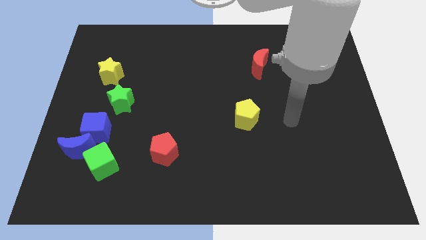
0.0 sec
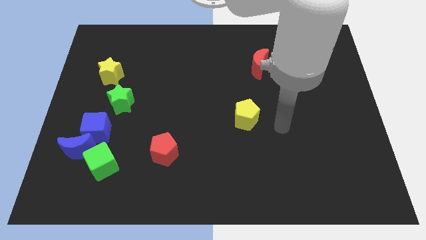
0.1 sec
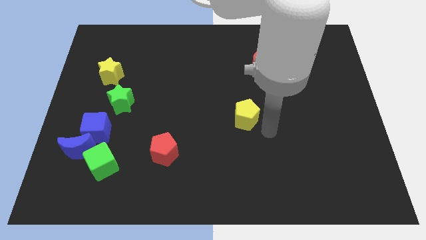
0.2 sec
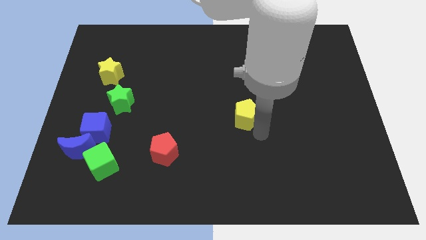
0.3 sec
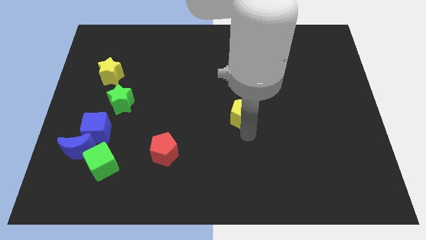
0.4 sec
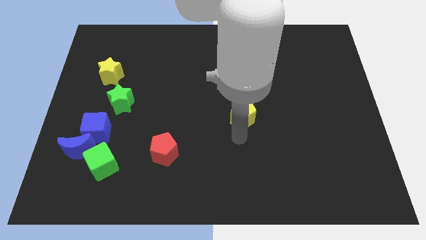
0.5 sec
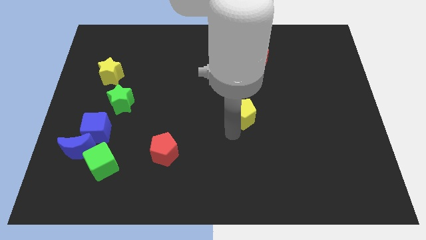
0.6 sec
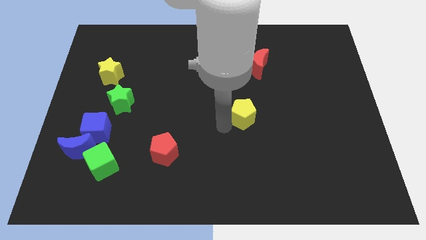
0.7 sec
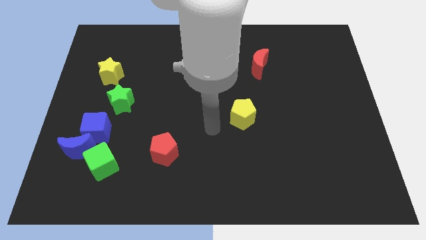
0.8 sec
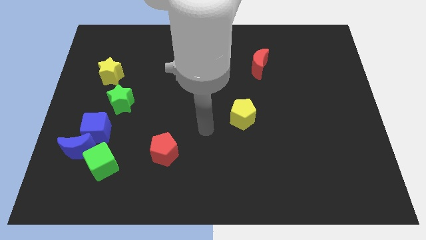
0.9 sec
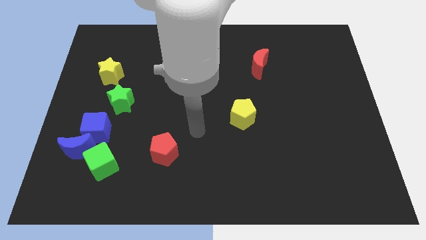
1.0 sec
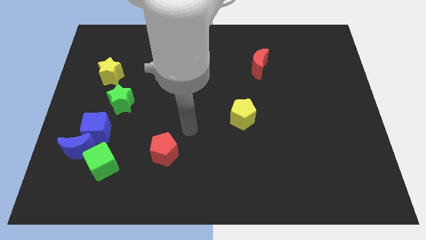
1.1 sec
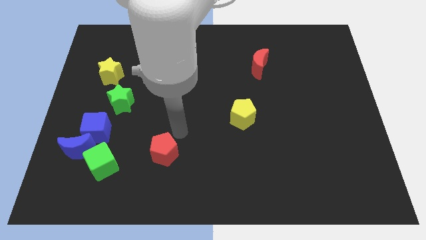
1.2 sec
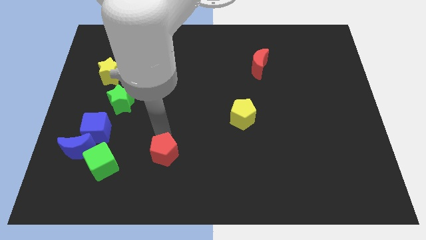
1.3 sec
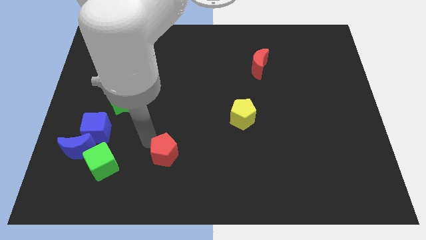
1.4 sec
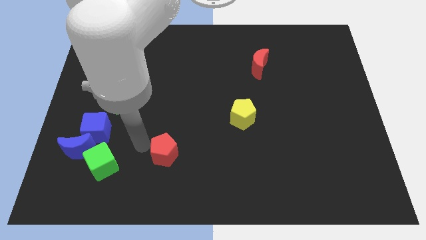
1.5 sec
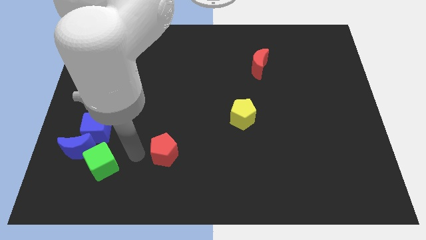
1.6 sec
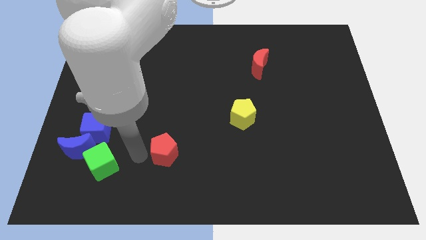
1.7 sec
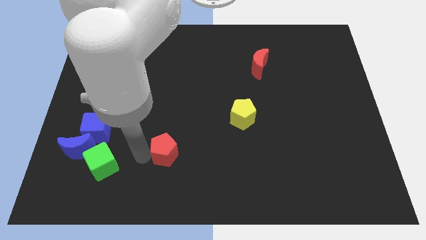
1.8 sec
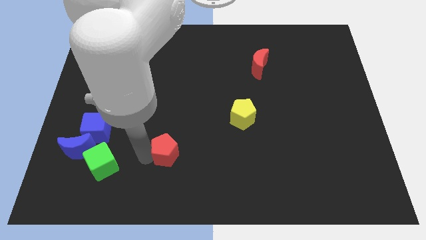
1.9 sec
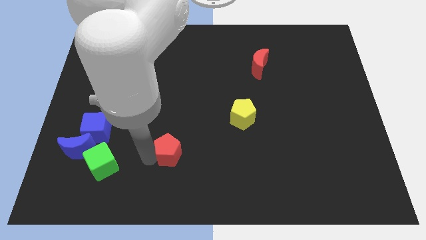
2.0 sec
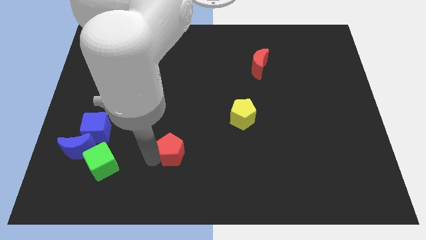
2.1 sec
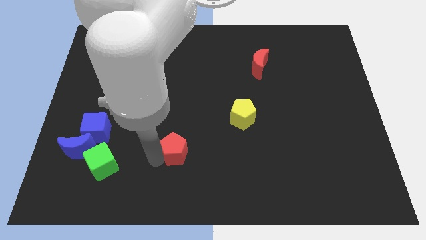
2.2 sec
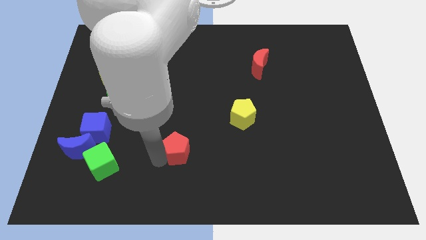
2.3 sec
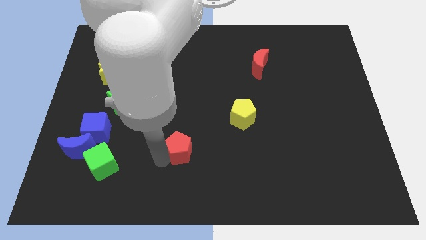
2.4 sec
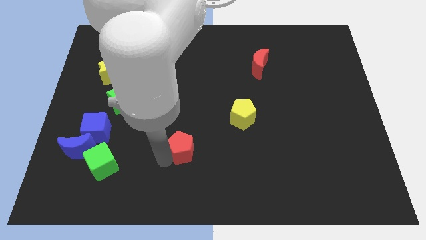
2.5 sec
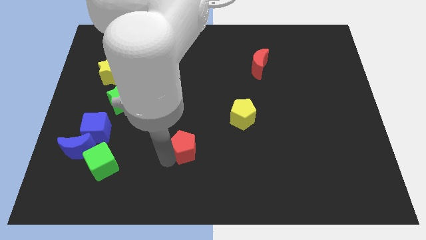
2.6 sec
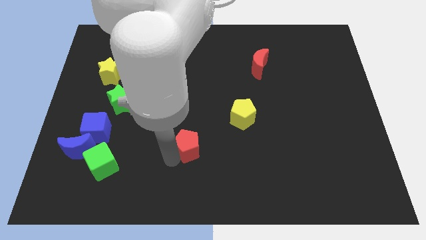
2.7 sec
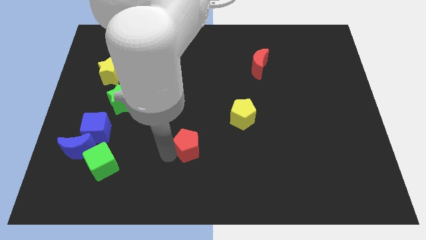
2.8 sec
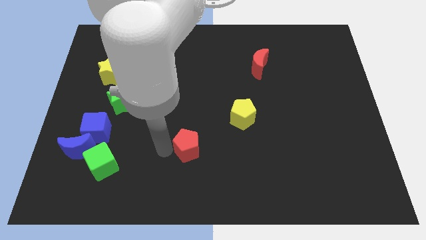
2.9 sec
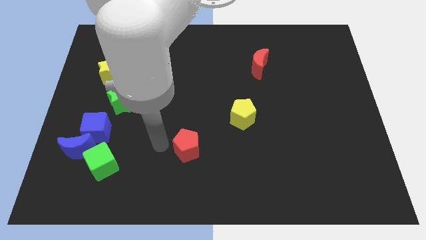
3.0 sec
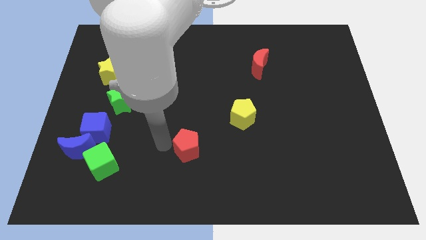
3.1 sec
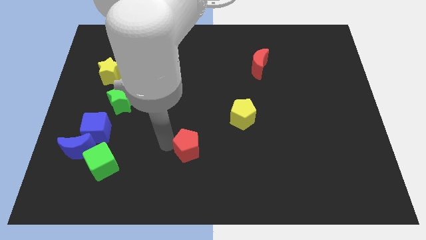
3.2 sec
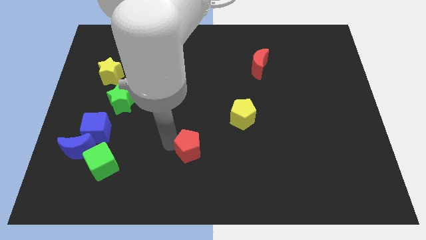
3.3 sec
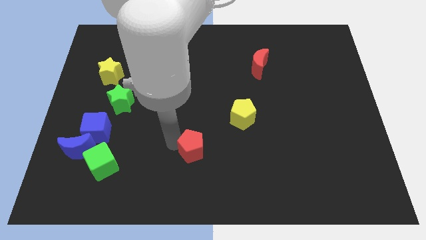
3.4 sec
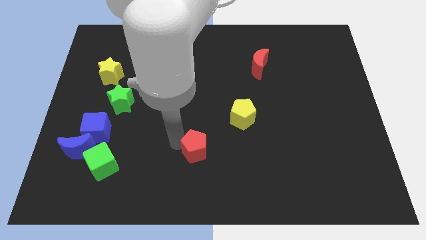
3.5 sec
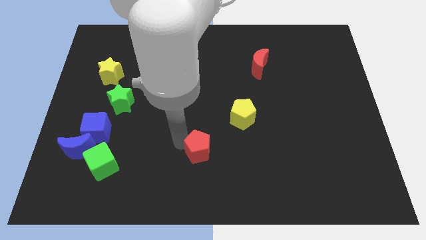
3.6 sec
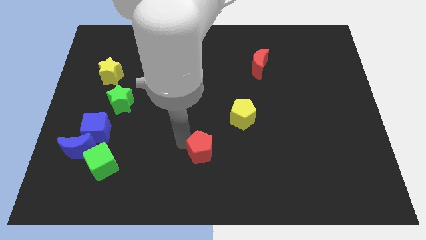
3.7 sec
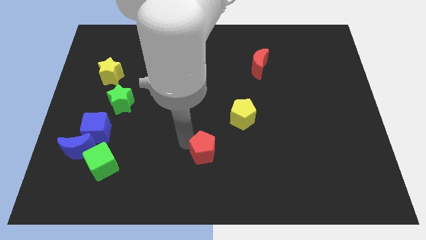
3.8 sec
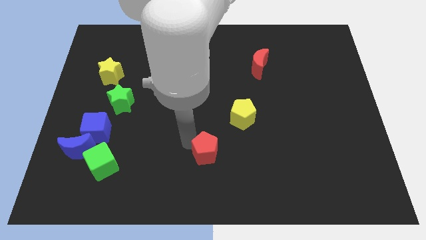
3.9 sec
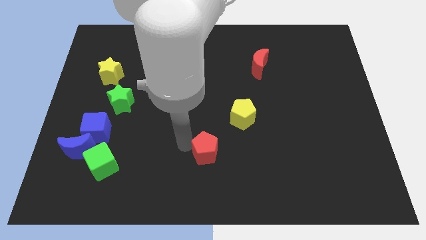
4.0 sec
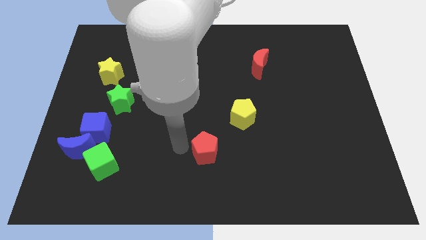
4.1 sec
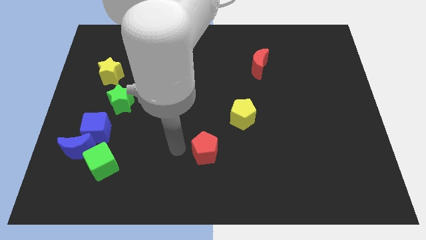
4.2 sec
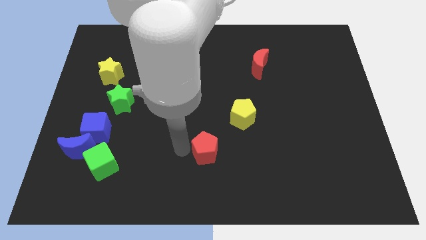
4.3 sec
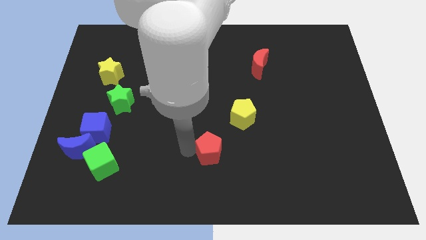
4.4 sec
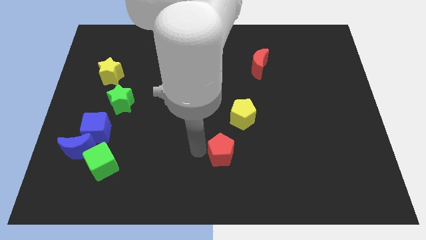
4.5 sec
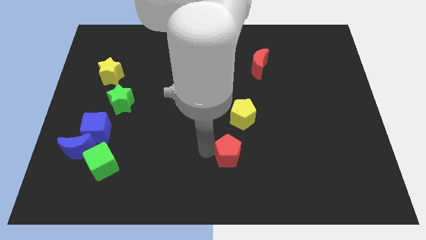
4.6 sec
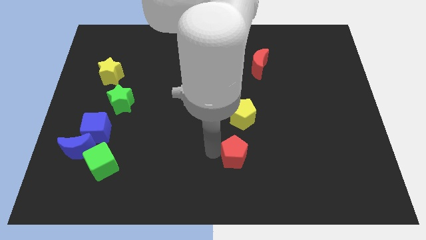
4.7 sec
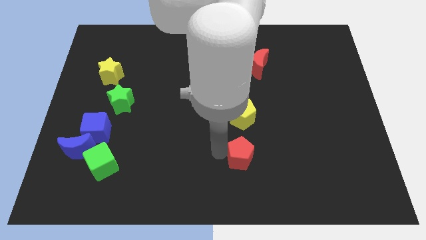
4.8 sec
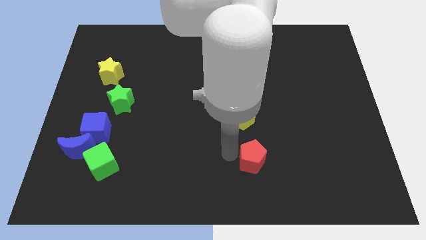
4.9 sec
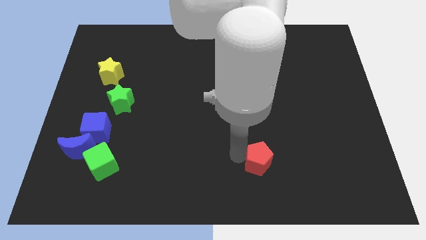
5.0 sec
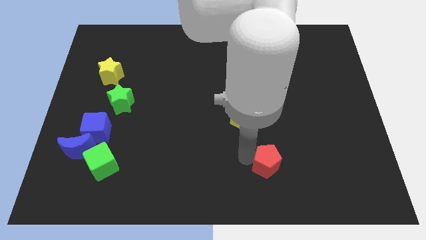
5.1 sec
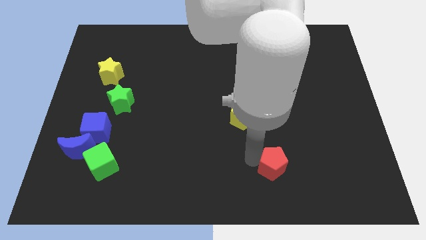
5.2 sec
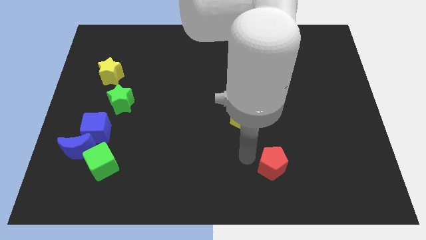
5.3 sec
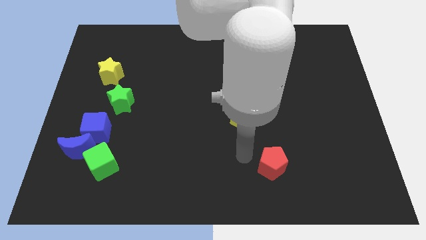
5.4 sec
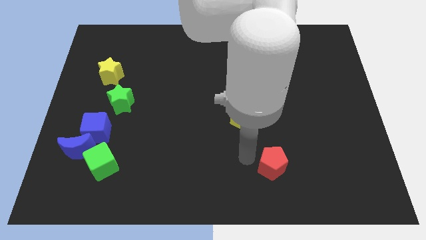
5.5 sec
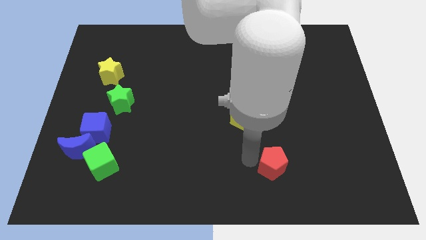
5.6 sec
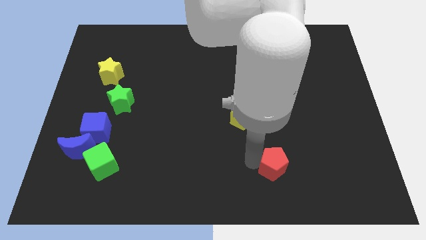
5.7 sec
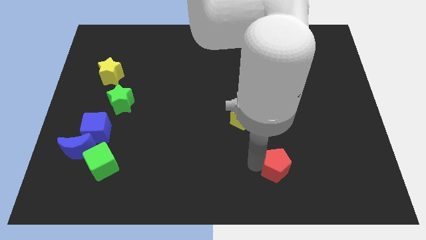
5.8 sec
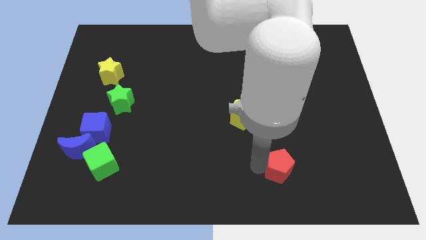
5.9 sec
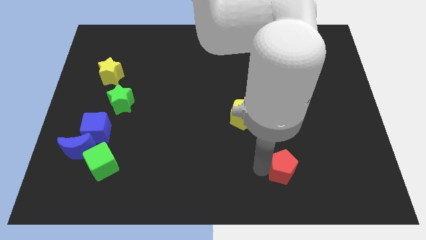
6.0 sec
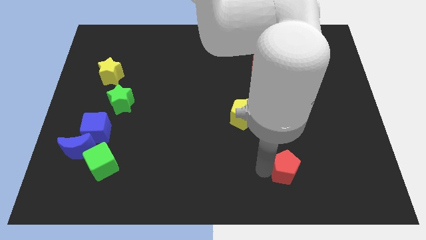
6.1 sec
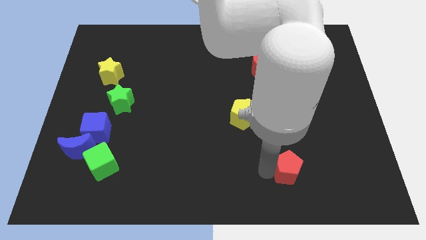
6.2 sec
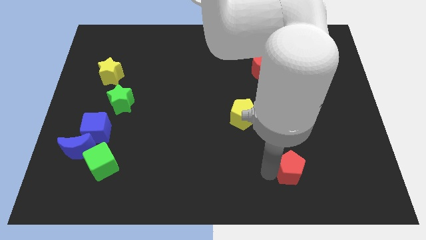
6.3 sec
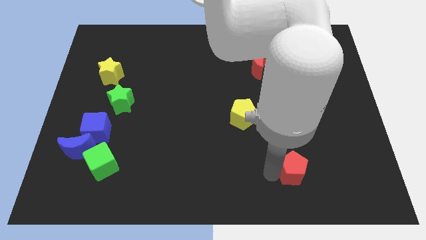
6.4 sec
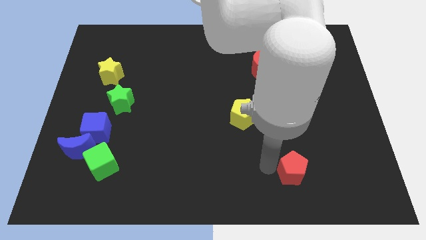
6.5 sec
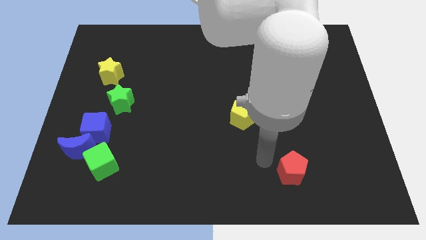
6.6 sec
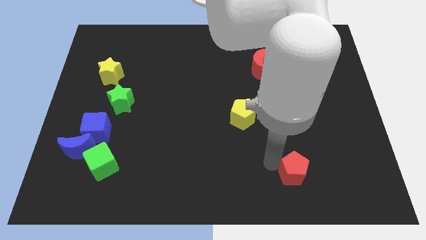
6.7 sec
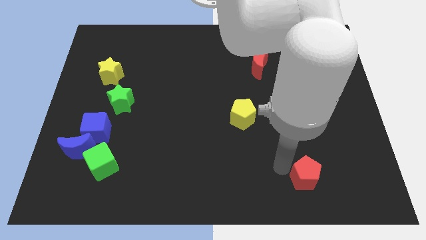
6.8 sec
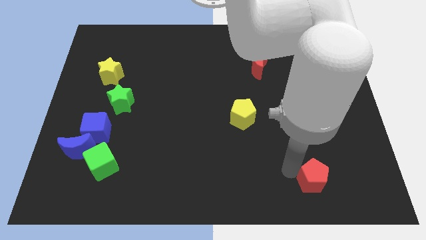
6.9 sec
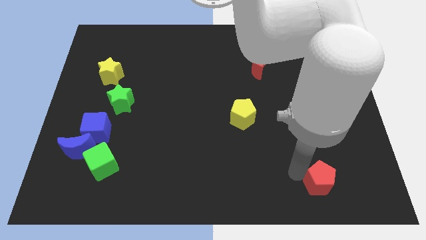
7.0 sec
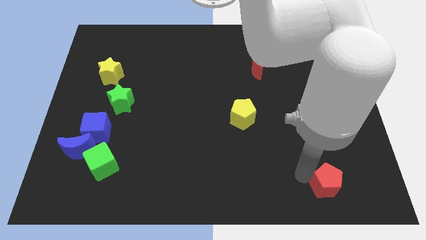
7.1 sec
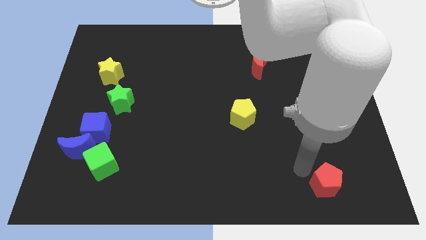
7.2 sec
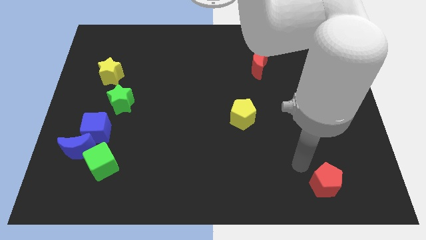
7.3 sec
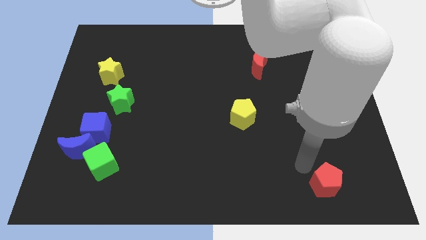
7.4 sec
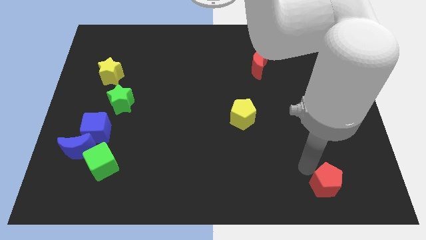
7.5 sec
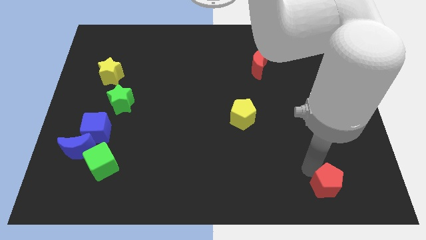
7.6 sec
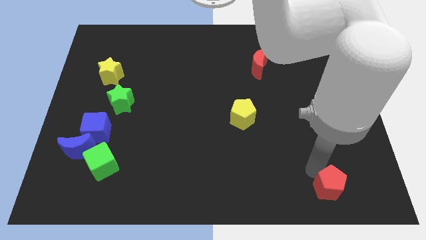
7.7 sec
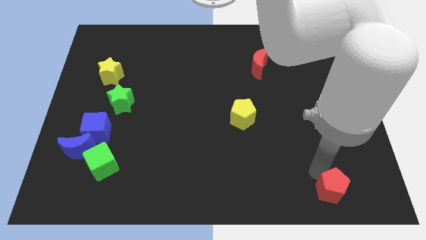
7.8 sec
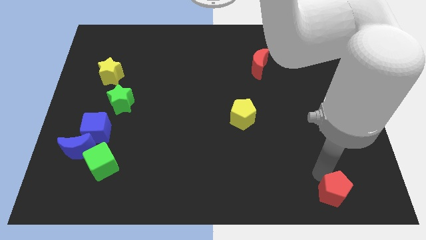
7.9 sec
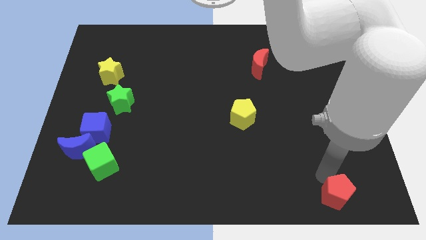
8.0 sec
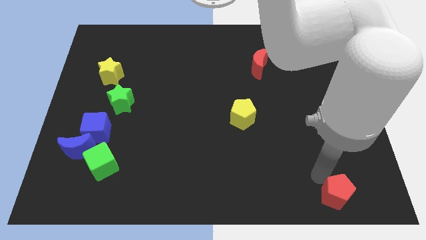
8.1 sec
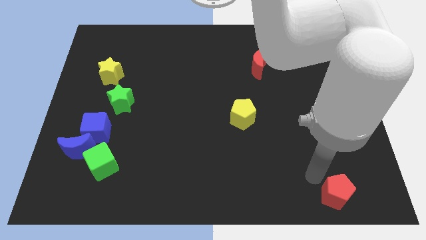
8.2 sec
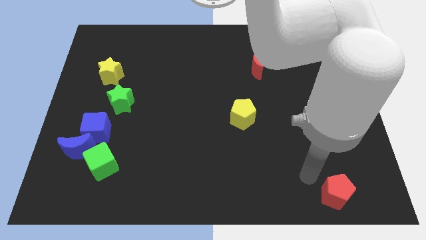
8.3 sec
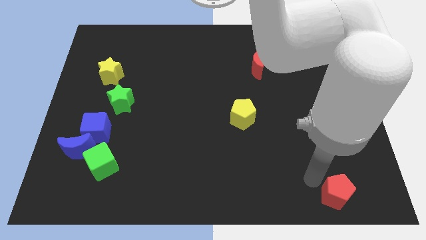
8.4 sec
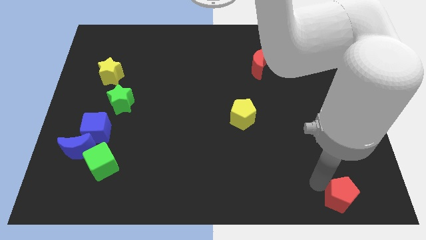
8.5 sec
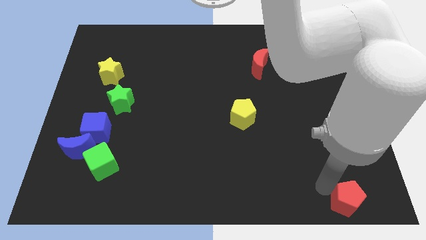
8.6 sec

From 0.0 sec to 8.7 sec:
put the red pentagon to the bottom right corner
